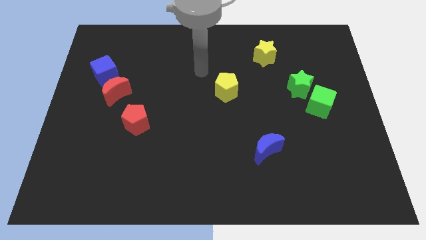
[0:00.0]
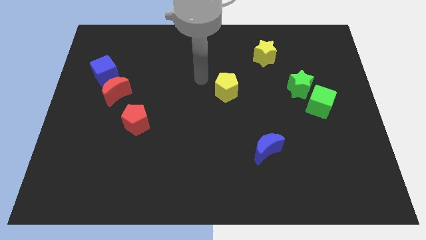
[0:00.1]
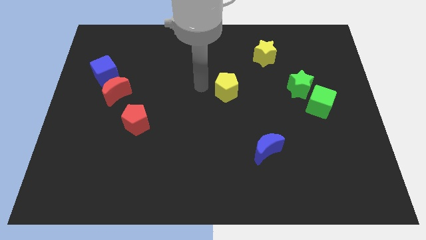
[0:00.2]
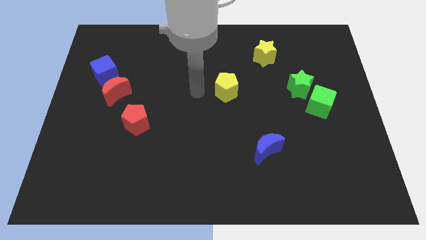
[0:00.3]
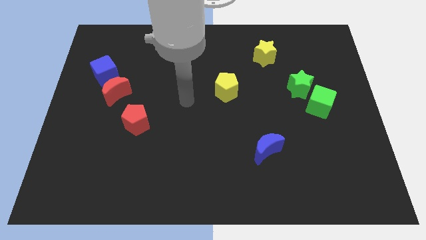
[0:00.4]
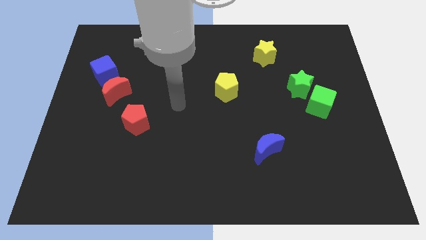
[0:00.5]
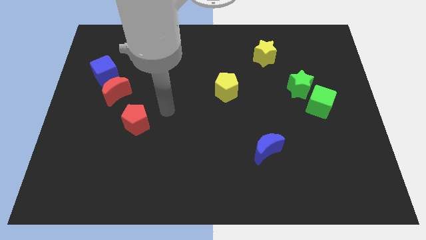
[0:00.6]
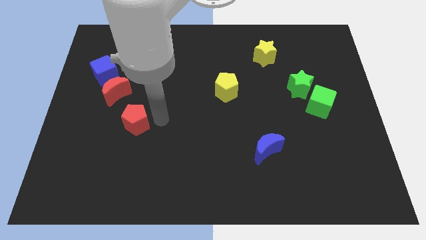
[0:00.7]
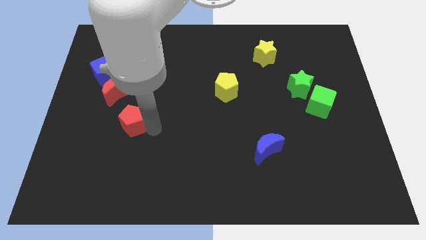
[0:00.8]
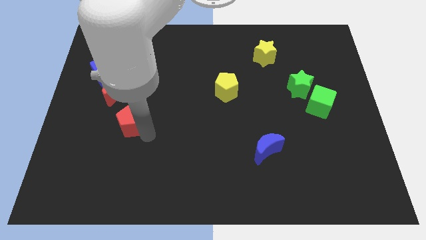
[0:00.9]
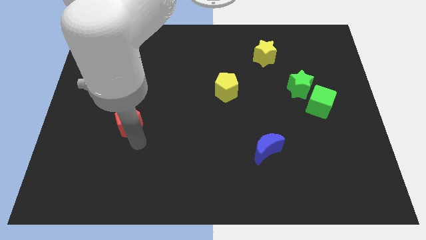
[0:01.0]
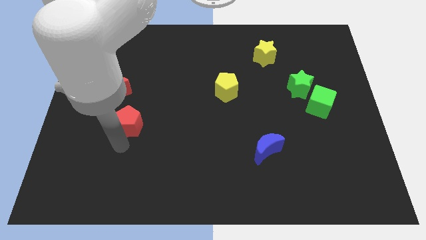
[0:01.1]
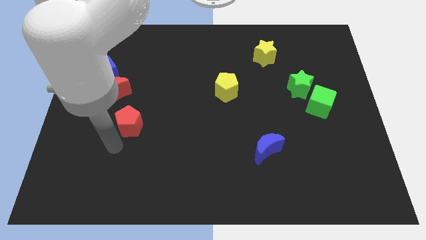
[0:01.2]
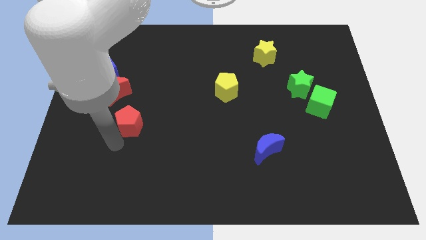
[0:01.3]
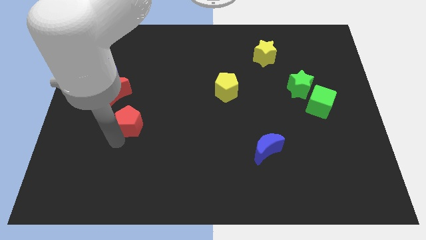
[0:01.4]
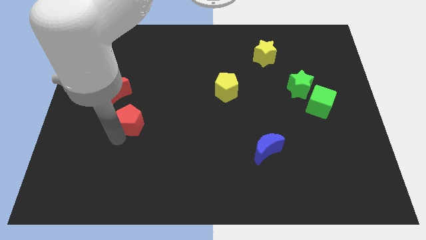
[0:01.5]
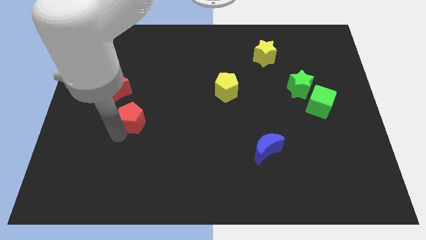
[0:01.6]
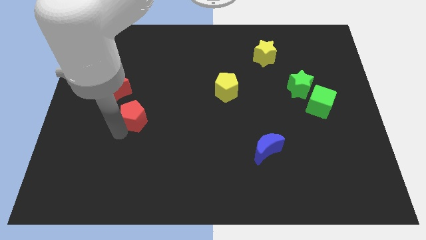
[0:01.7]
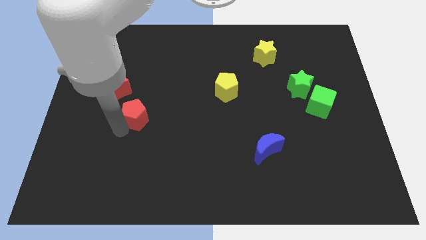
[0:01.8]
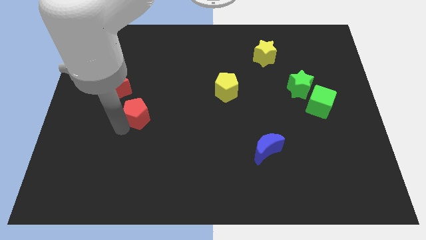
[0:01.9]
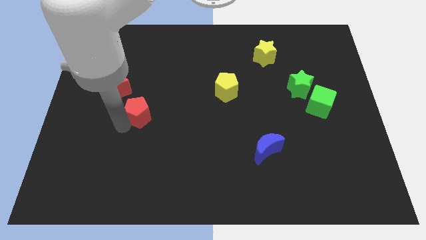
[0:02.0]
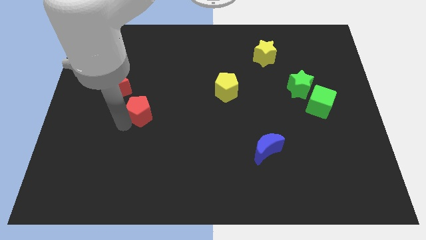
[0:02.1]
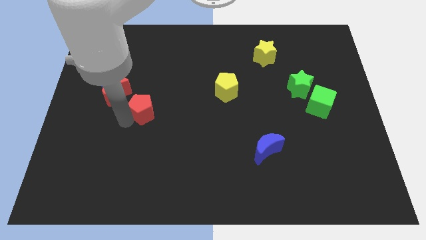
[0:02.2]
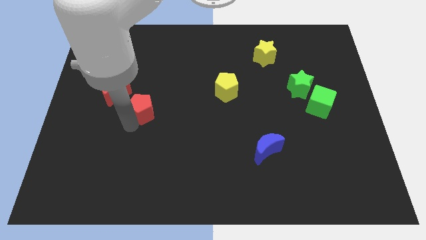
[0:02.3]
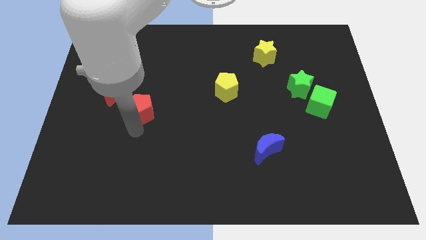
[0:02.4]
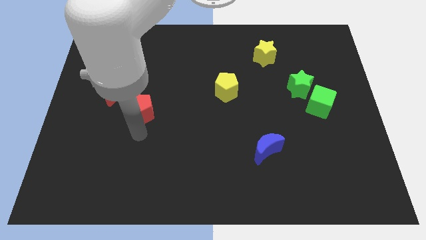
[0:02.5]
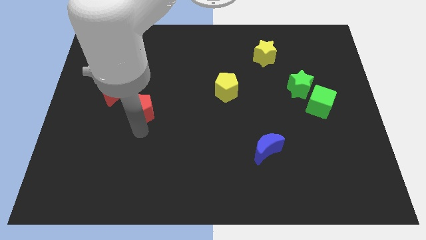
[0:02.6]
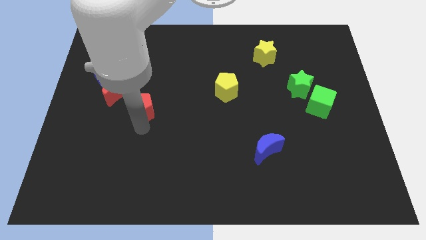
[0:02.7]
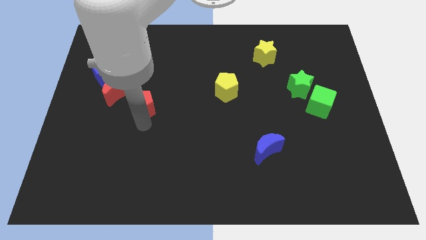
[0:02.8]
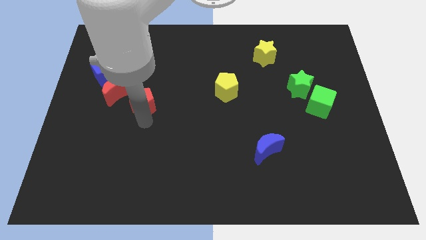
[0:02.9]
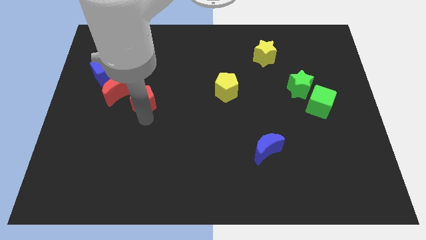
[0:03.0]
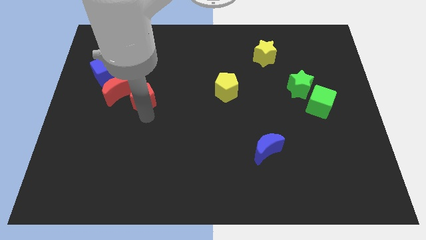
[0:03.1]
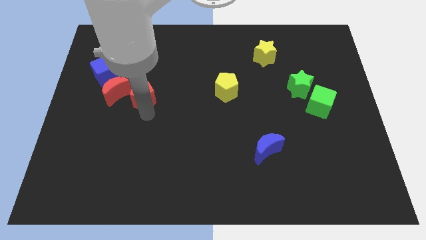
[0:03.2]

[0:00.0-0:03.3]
move the red pentagon somewhat up

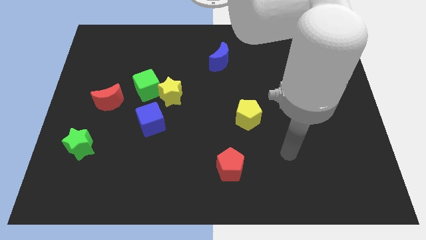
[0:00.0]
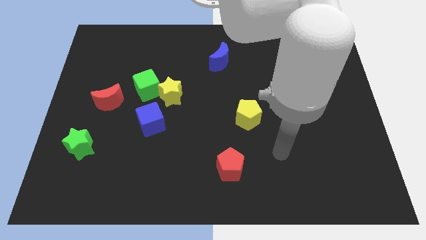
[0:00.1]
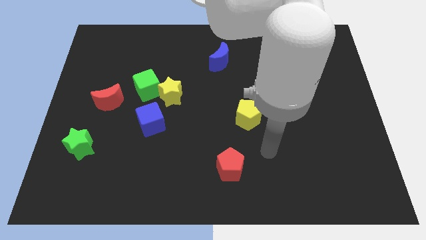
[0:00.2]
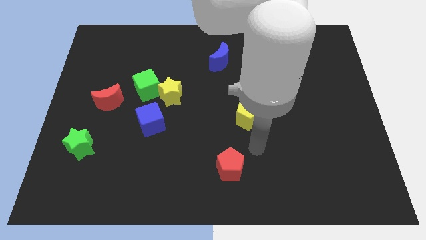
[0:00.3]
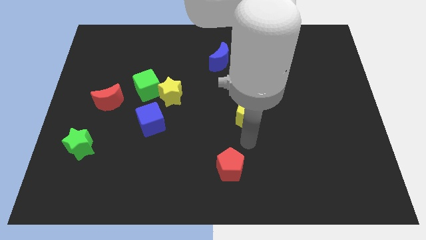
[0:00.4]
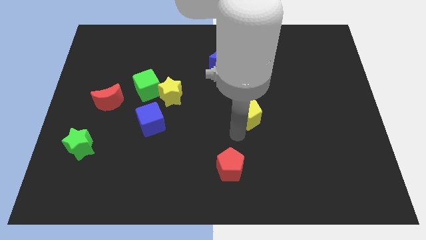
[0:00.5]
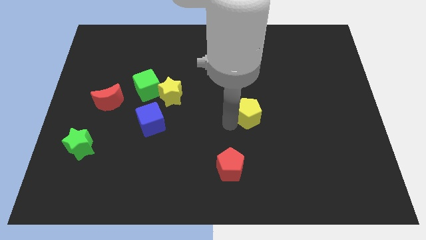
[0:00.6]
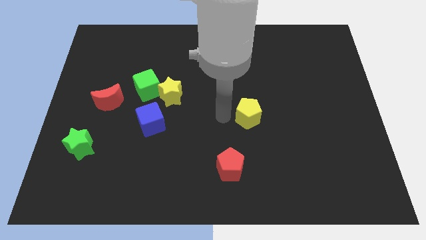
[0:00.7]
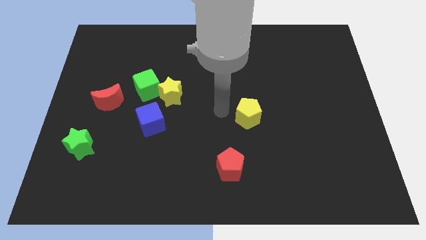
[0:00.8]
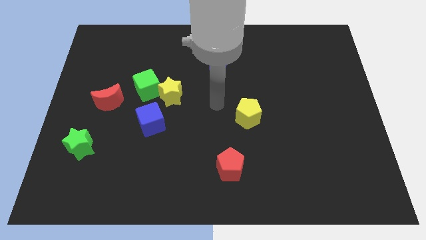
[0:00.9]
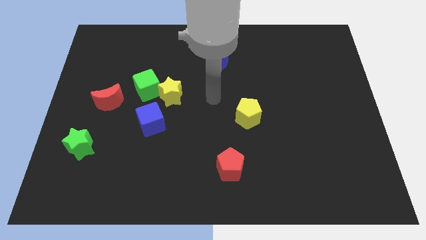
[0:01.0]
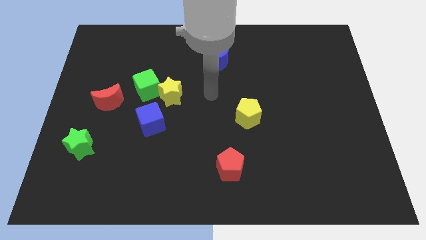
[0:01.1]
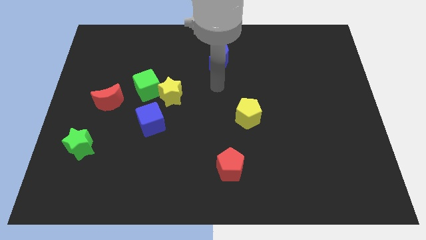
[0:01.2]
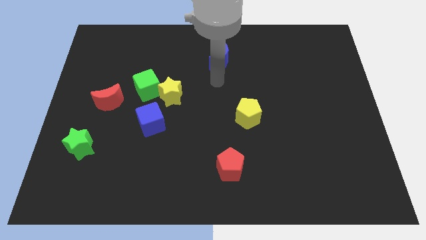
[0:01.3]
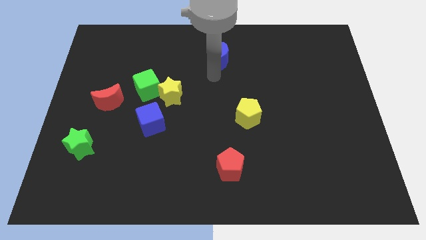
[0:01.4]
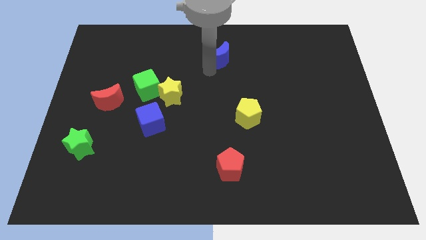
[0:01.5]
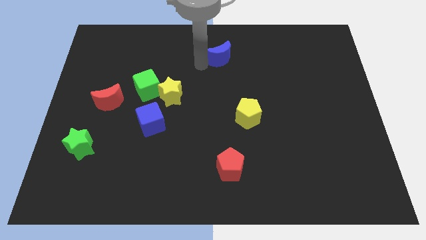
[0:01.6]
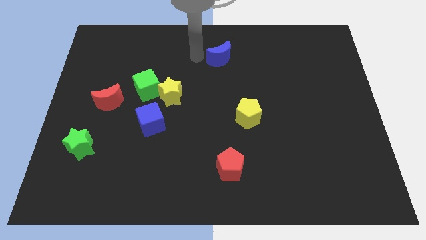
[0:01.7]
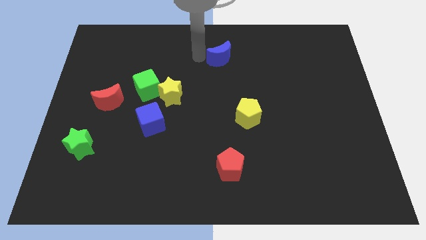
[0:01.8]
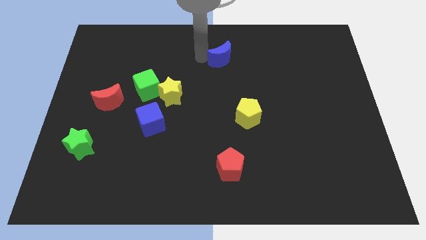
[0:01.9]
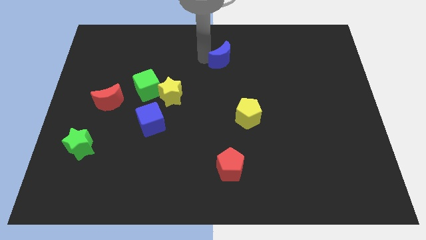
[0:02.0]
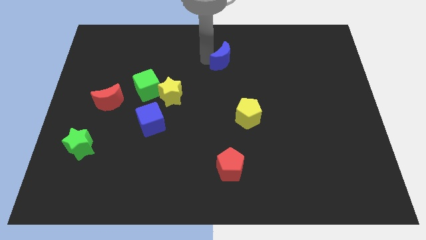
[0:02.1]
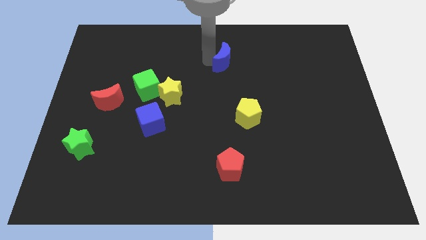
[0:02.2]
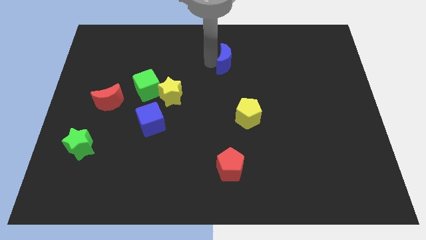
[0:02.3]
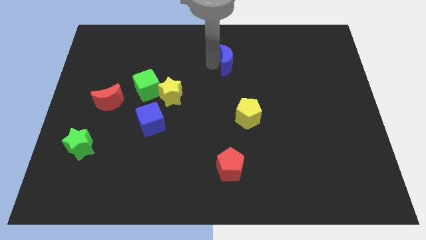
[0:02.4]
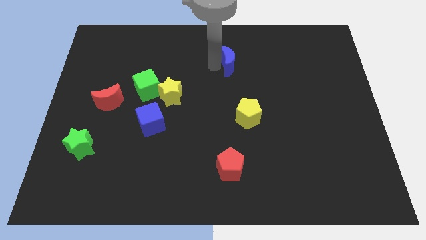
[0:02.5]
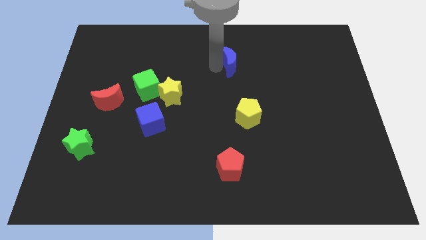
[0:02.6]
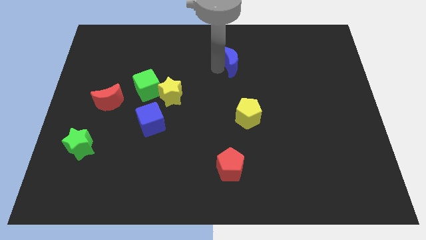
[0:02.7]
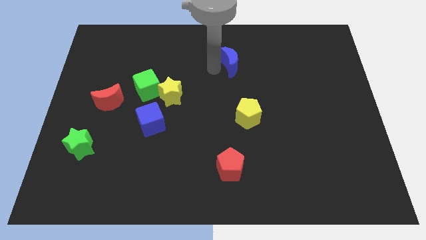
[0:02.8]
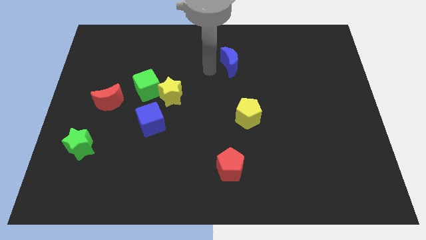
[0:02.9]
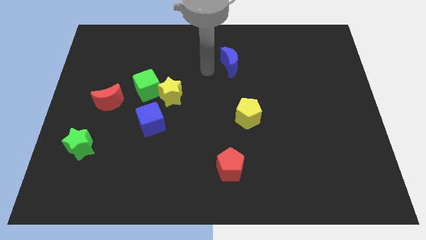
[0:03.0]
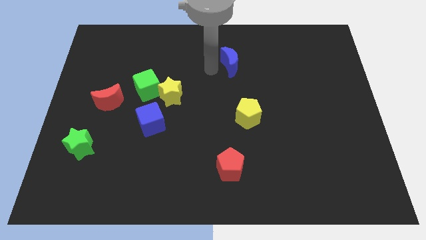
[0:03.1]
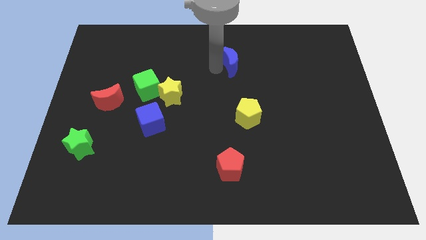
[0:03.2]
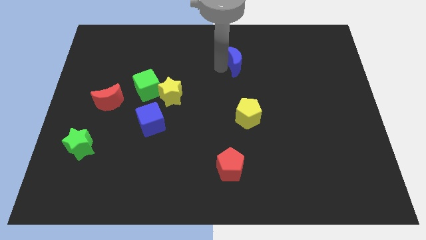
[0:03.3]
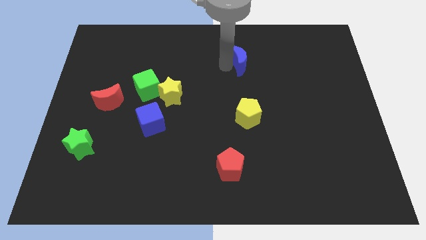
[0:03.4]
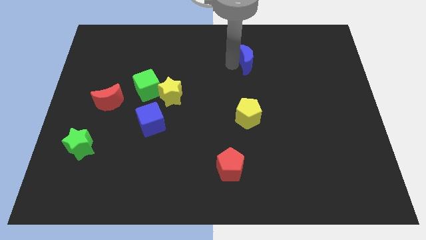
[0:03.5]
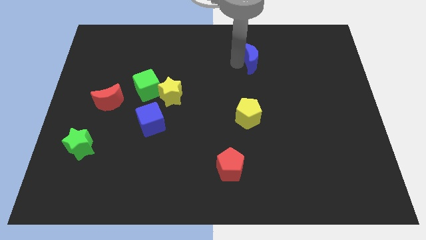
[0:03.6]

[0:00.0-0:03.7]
move the blue moon a little bit right

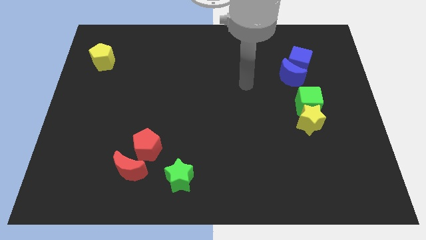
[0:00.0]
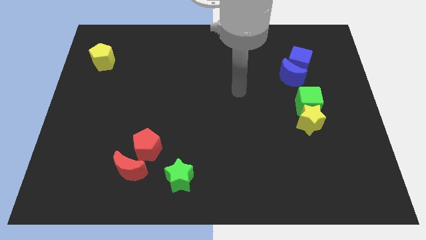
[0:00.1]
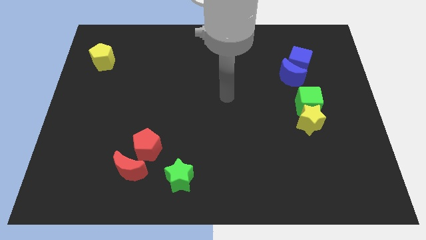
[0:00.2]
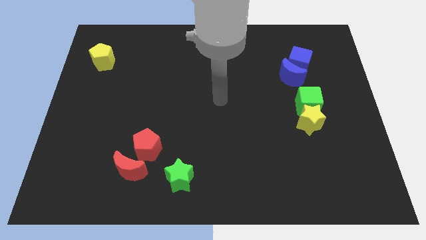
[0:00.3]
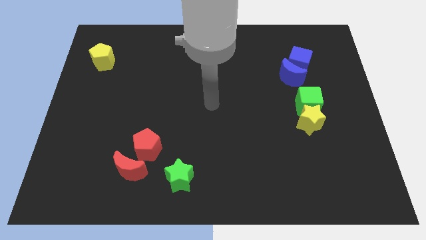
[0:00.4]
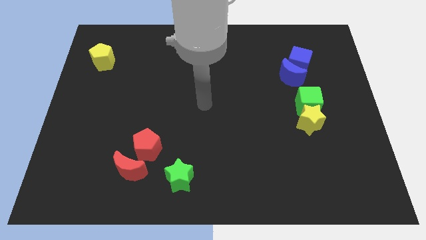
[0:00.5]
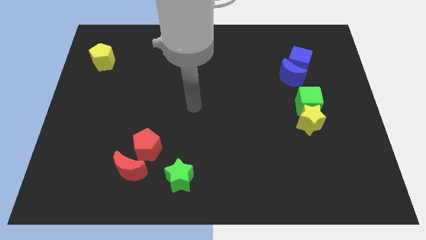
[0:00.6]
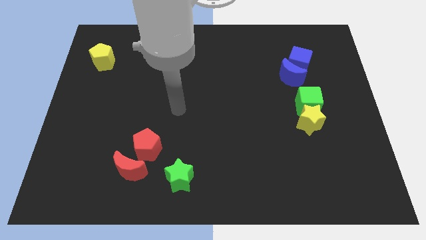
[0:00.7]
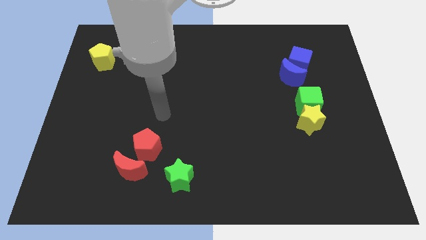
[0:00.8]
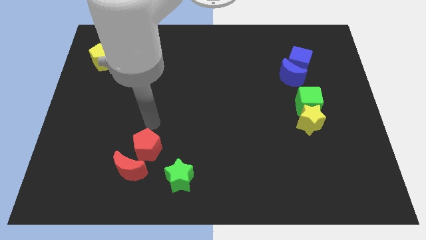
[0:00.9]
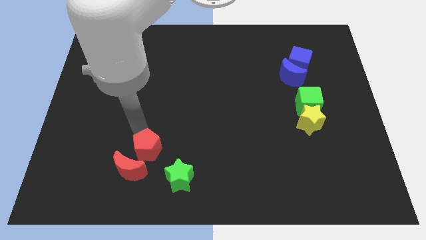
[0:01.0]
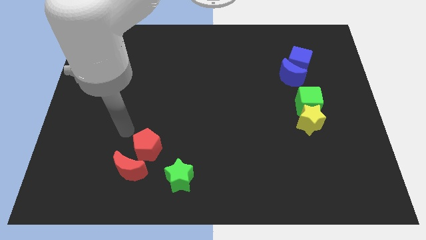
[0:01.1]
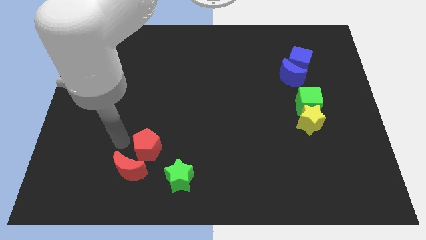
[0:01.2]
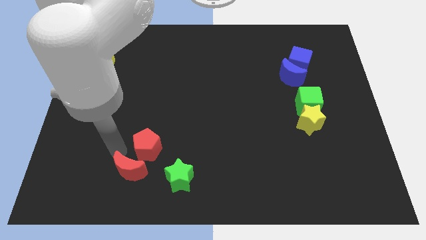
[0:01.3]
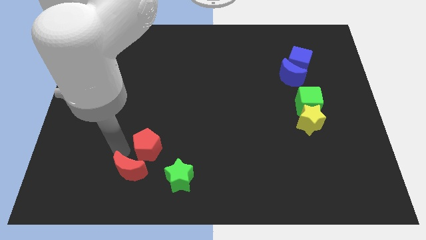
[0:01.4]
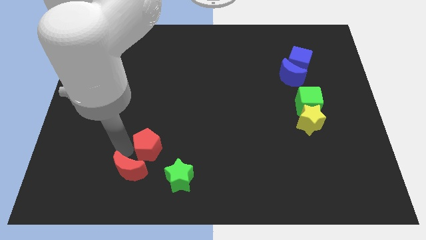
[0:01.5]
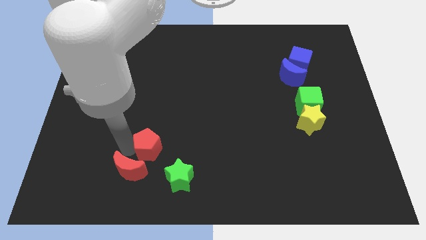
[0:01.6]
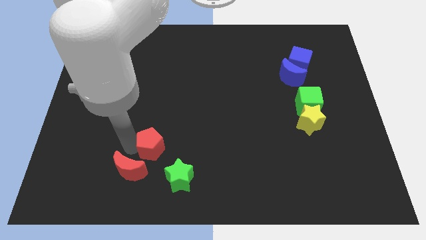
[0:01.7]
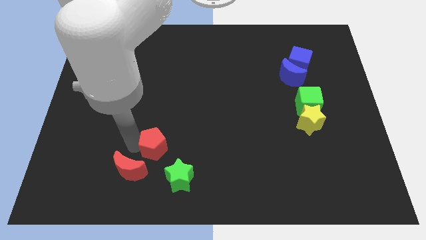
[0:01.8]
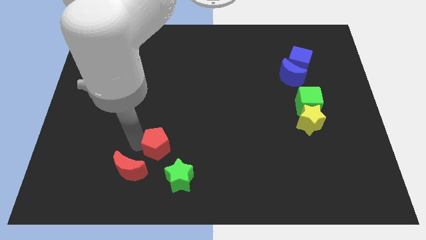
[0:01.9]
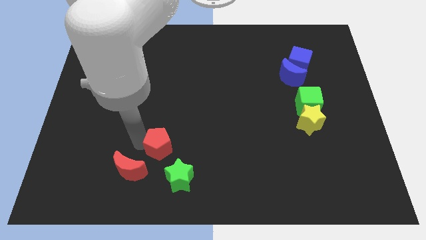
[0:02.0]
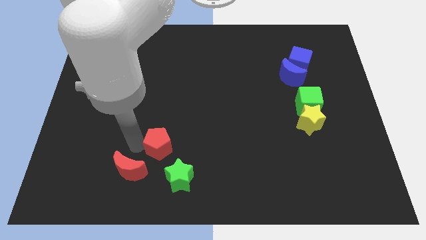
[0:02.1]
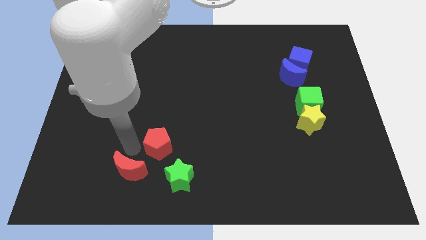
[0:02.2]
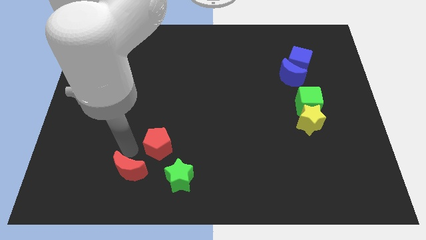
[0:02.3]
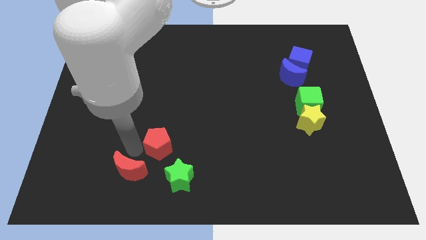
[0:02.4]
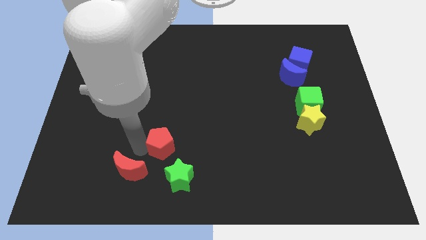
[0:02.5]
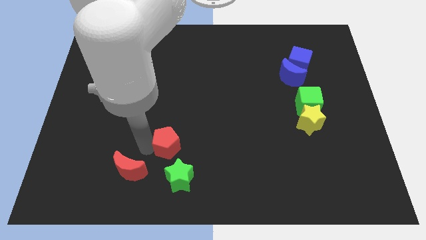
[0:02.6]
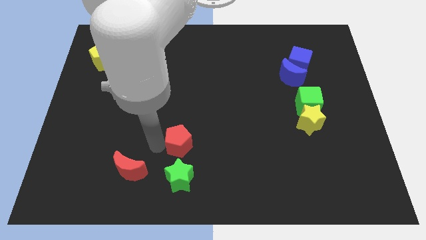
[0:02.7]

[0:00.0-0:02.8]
slide the red pentagon to the right a little bit
